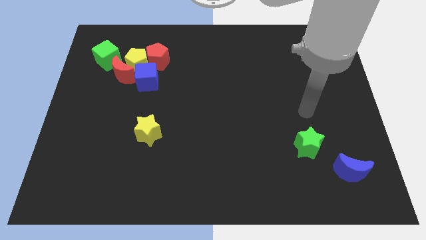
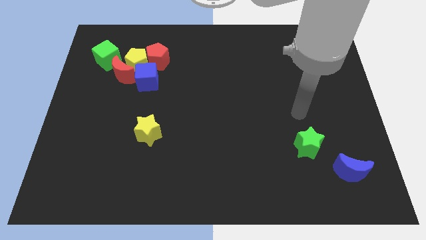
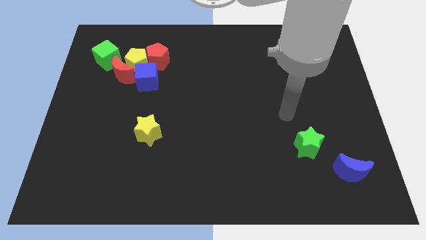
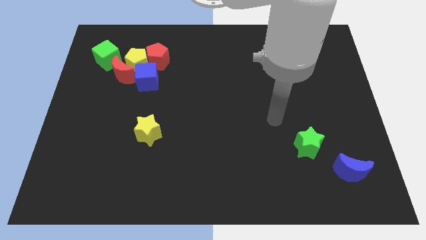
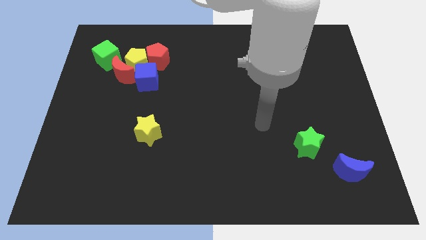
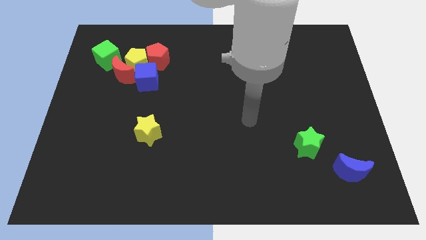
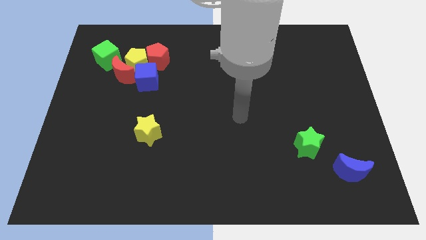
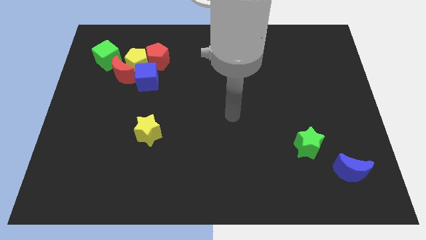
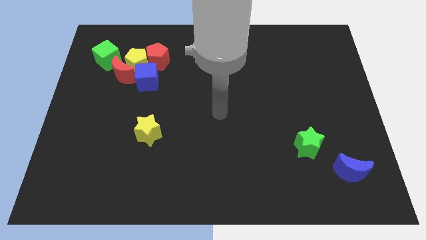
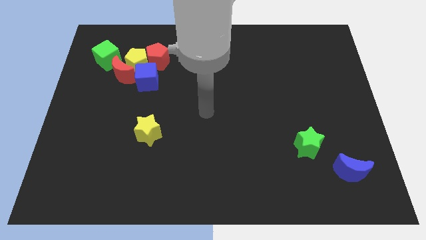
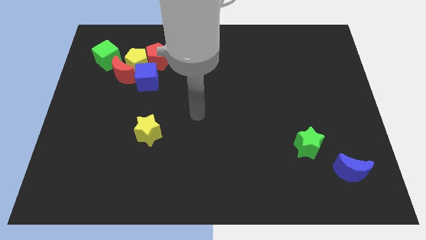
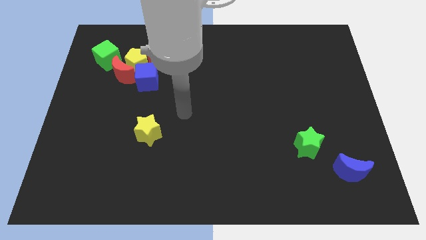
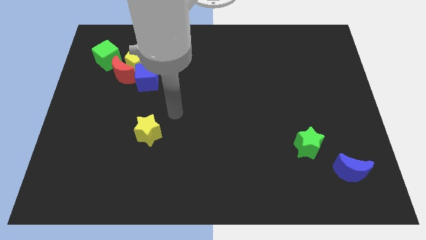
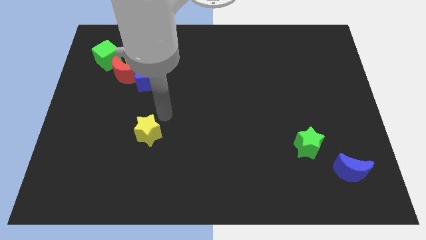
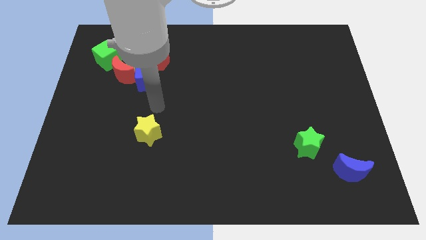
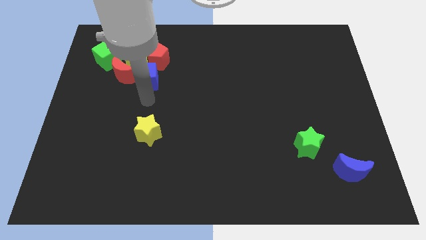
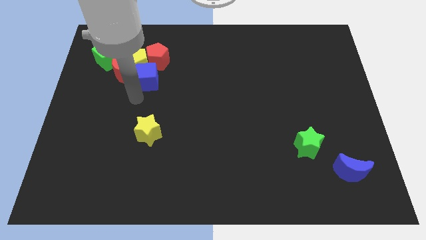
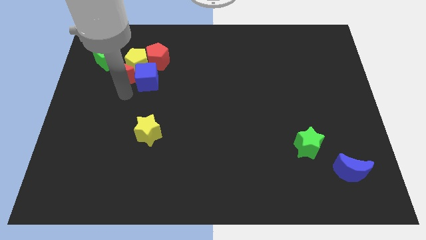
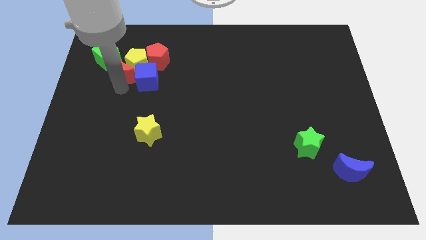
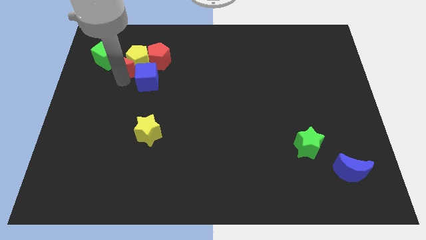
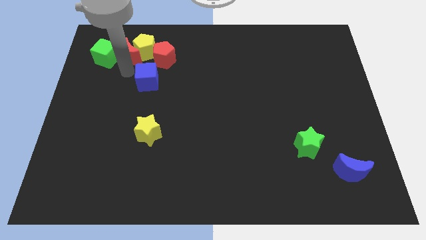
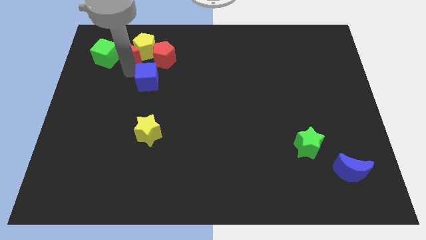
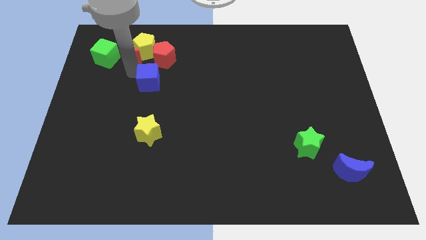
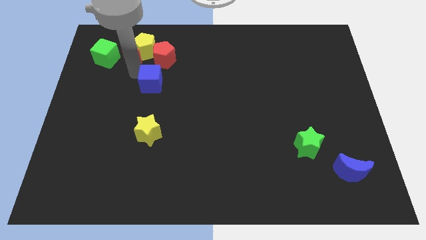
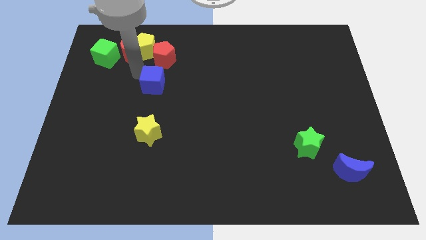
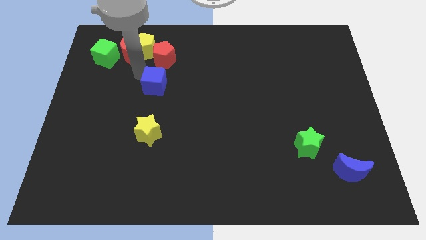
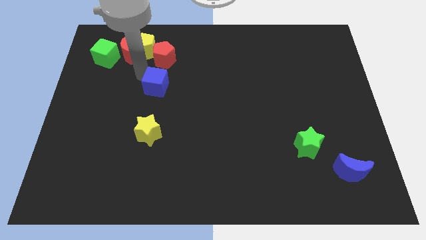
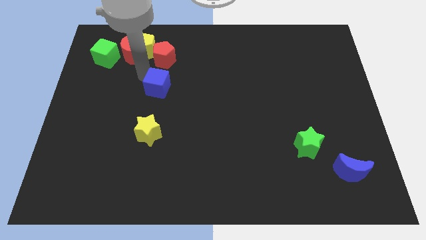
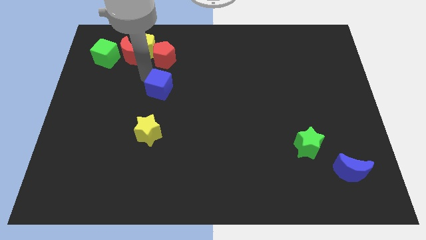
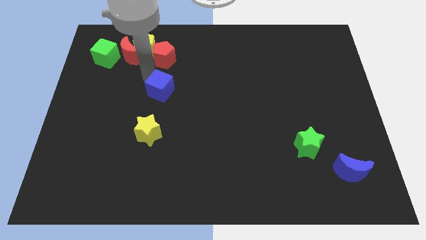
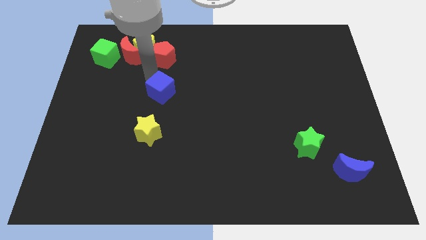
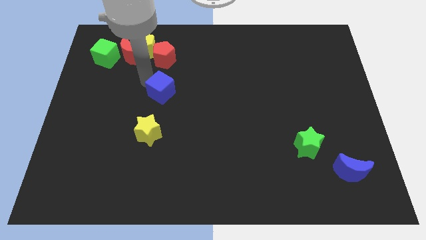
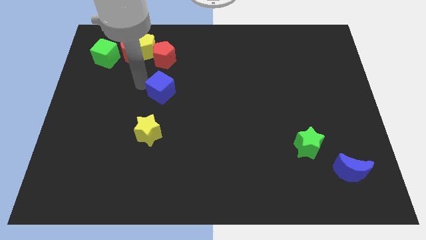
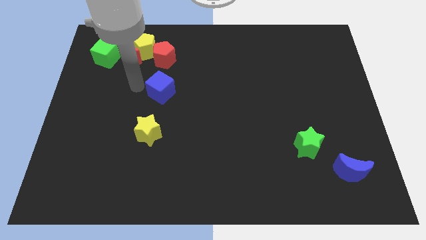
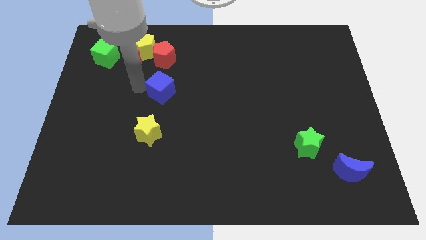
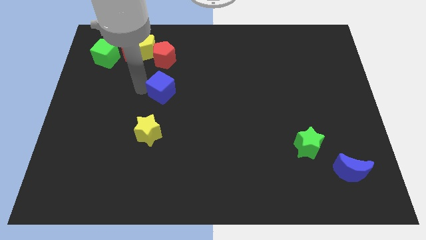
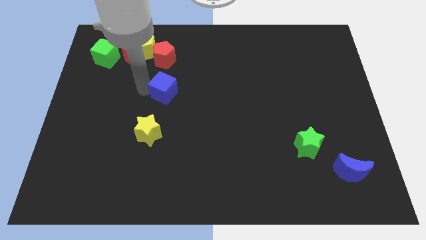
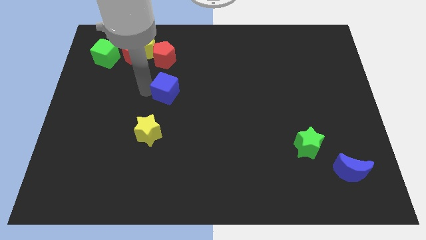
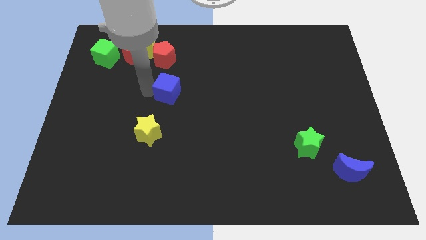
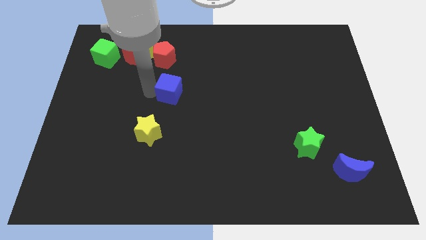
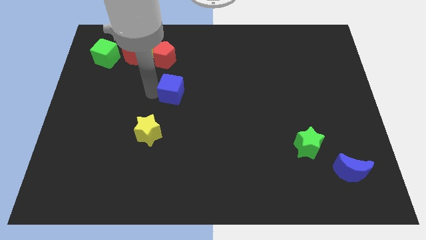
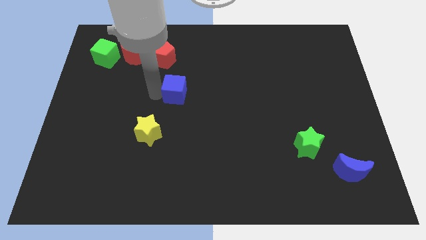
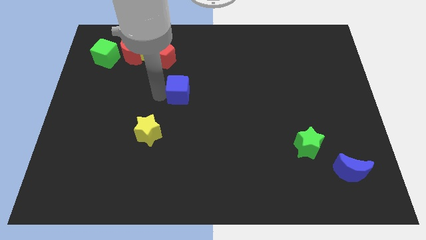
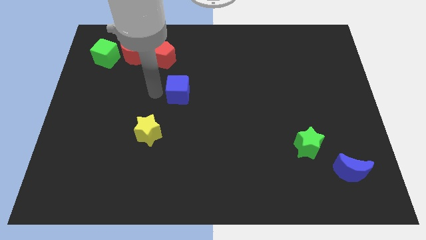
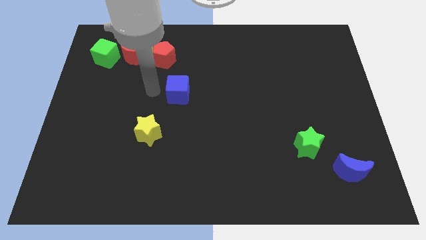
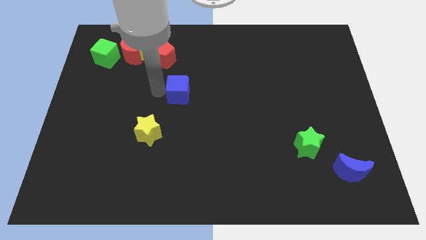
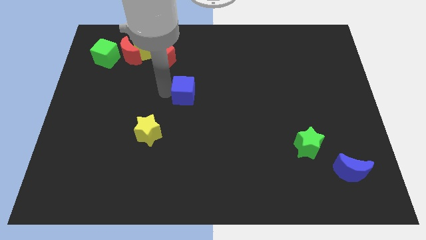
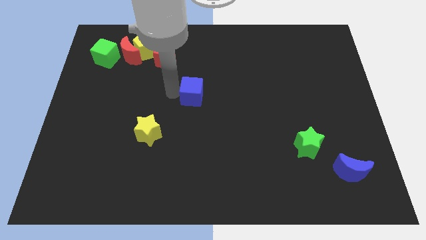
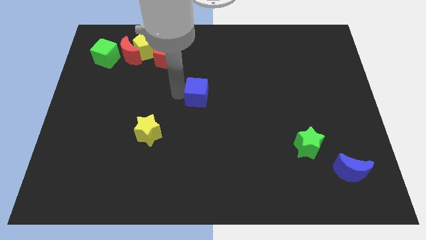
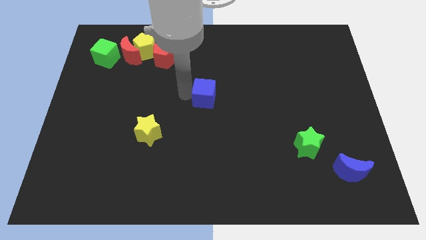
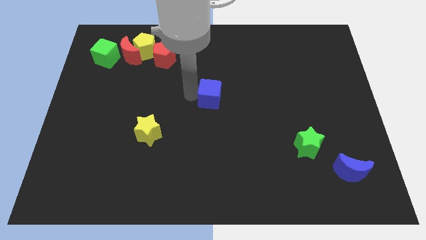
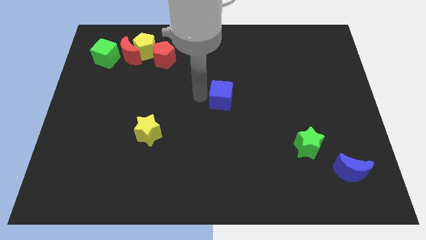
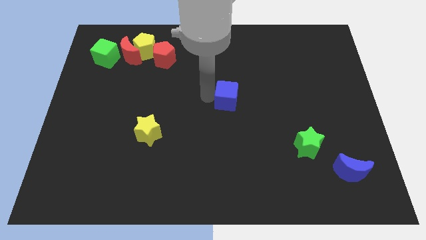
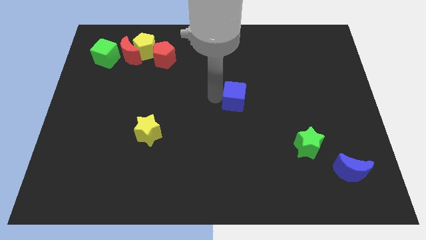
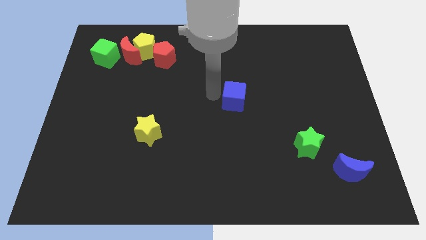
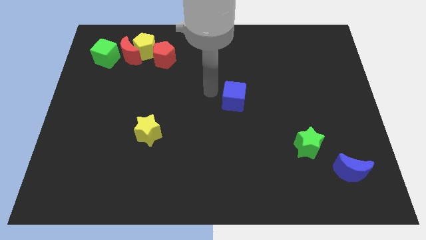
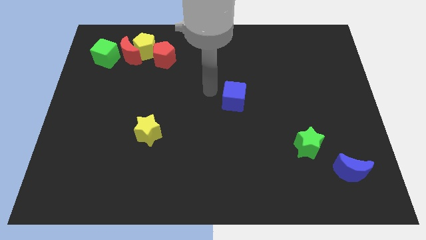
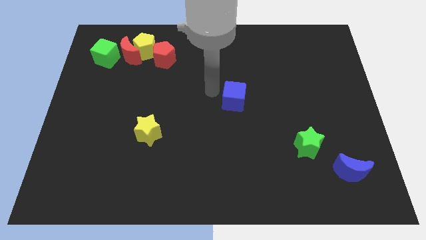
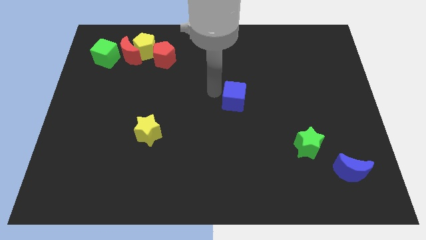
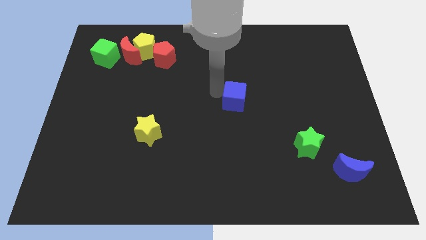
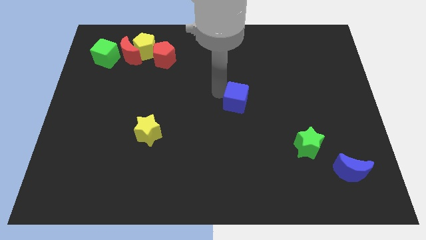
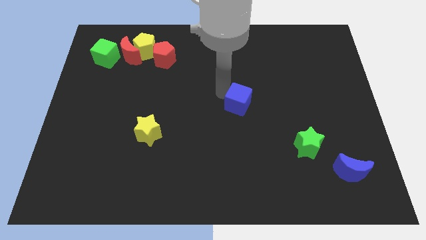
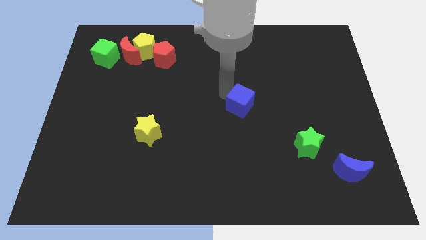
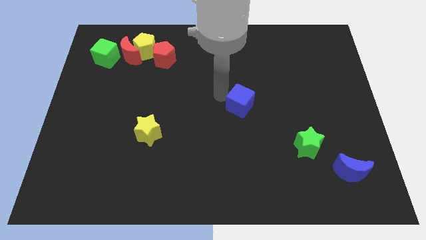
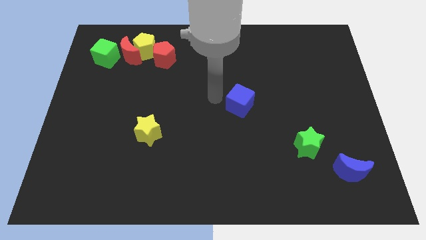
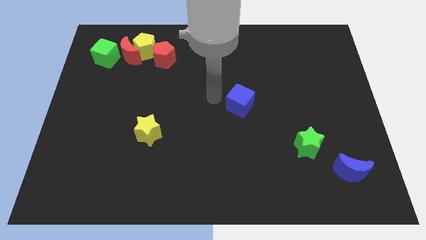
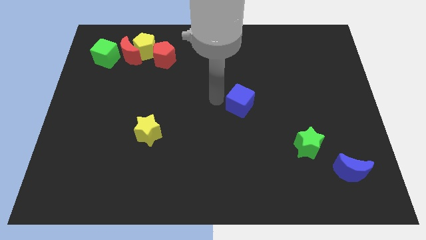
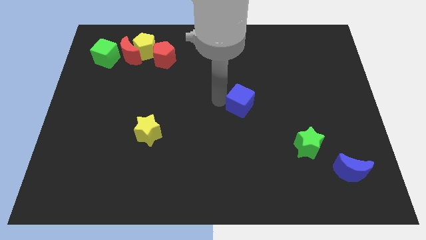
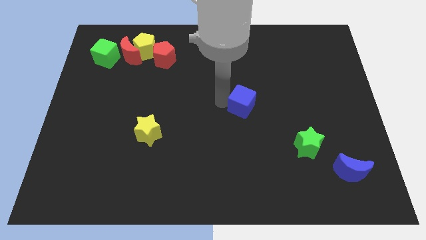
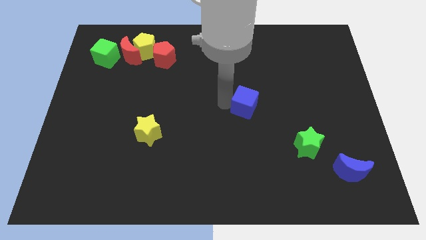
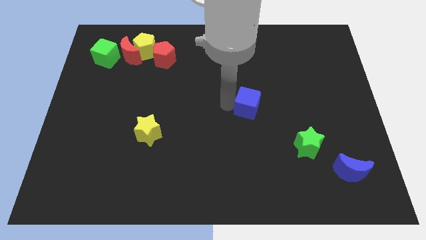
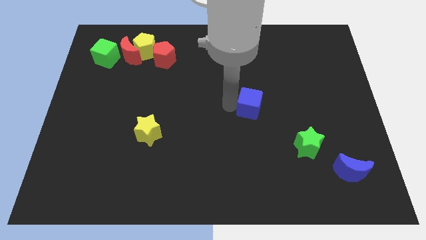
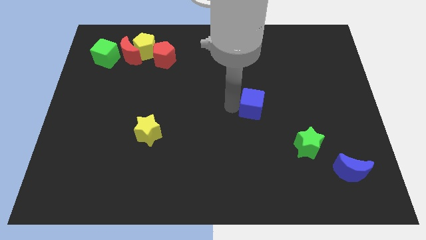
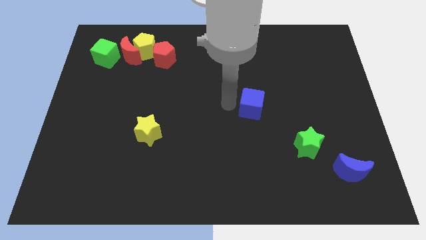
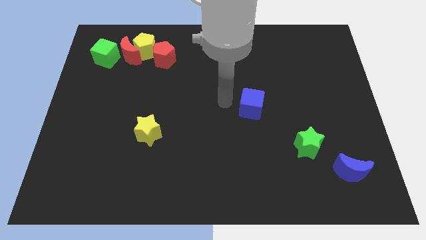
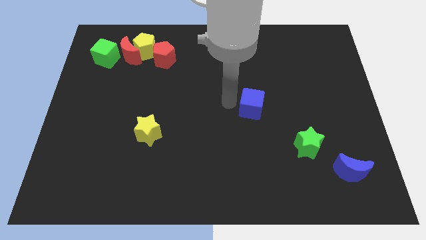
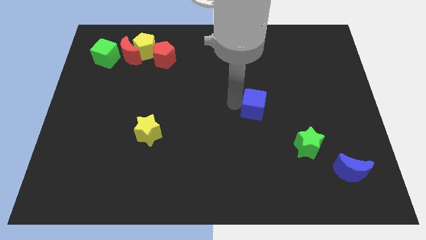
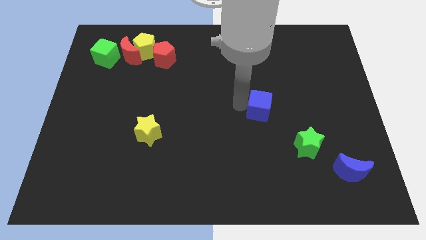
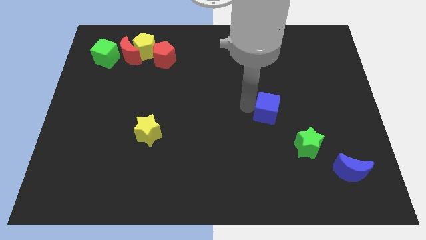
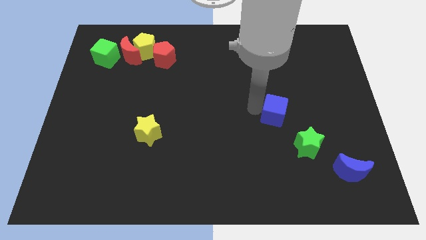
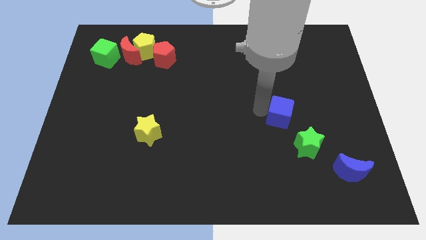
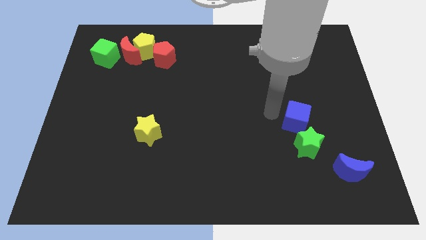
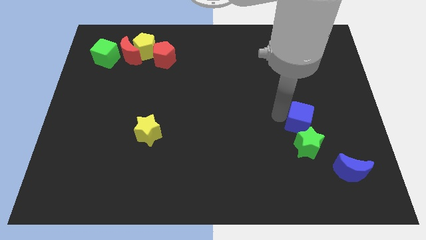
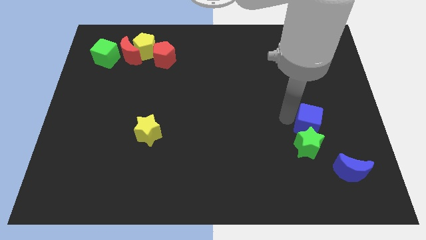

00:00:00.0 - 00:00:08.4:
put the blue cube diagonally up and to the right of the green star
